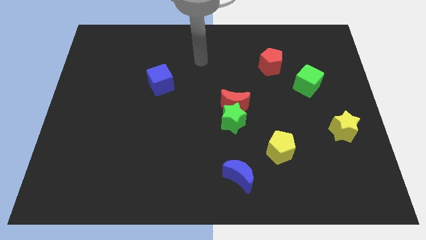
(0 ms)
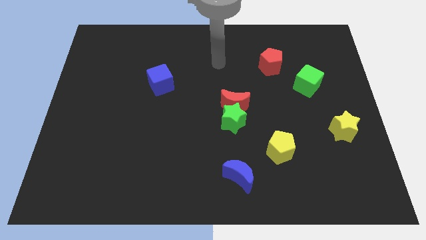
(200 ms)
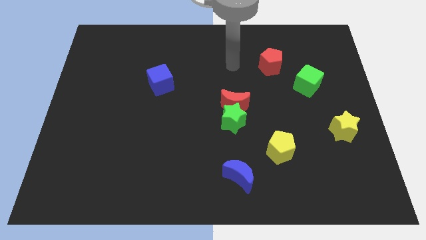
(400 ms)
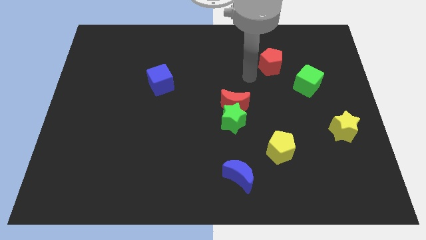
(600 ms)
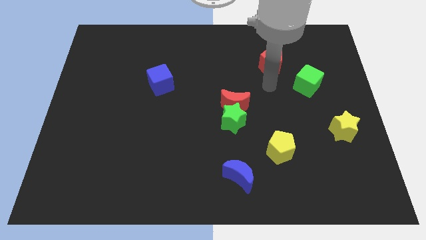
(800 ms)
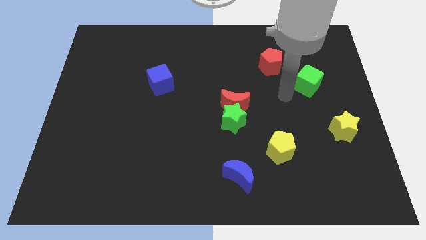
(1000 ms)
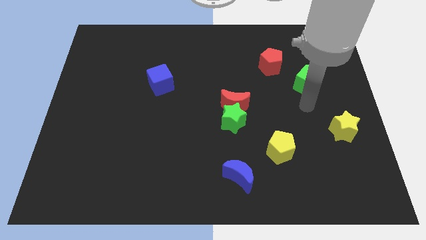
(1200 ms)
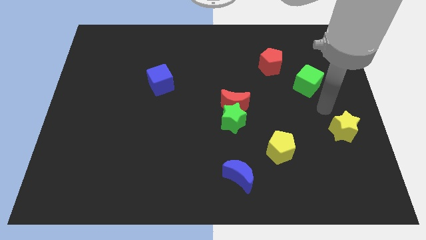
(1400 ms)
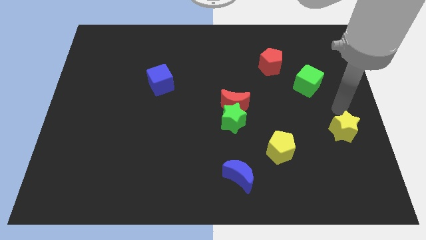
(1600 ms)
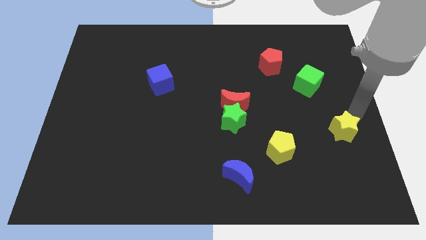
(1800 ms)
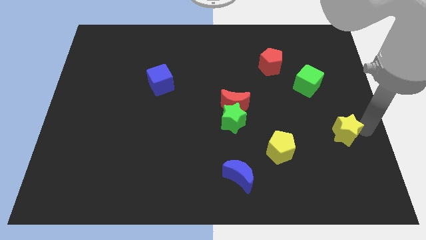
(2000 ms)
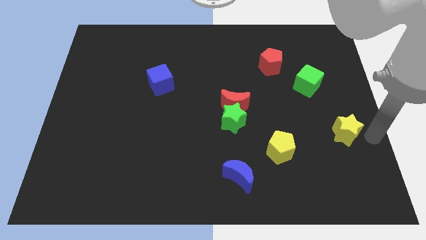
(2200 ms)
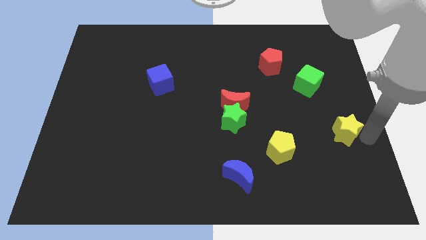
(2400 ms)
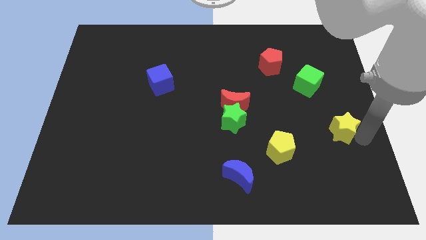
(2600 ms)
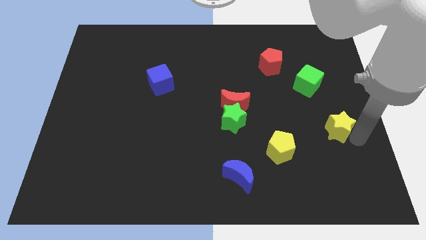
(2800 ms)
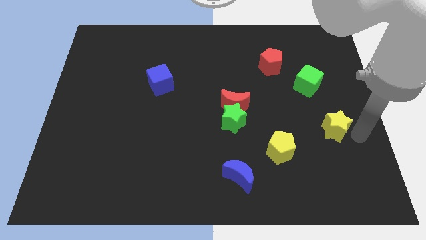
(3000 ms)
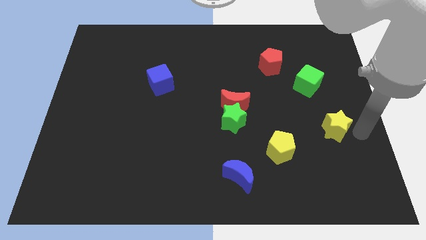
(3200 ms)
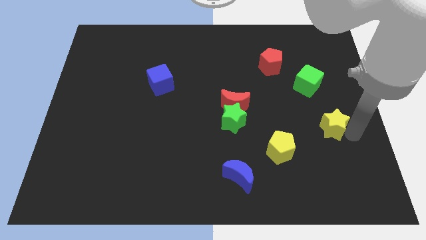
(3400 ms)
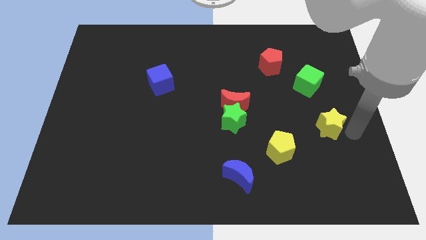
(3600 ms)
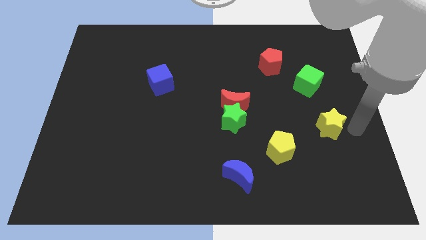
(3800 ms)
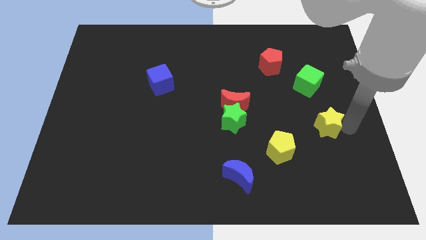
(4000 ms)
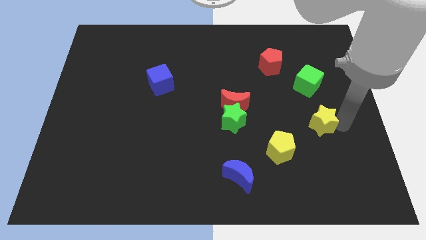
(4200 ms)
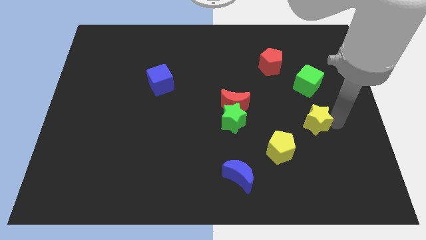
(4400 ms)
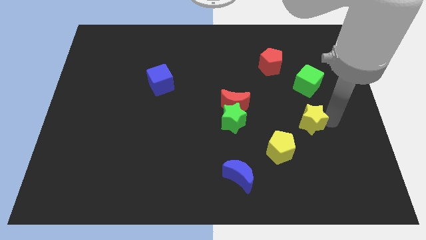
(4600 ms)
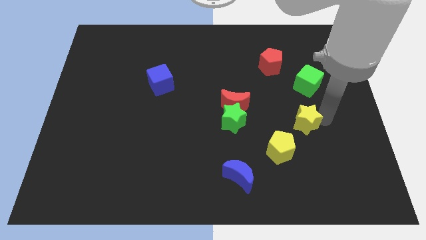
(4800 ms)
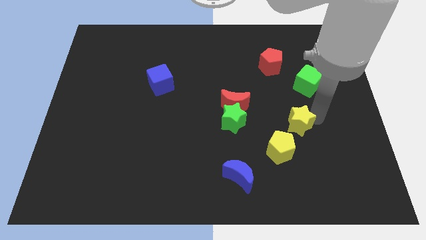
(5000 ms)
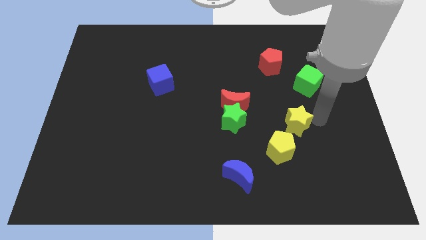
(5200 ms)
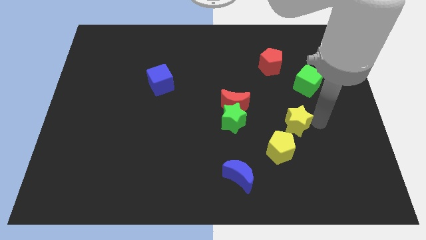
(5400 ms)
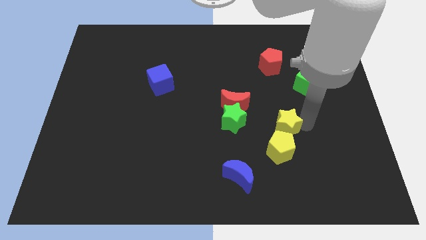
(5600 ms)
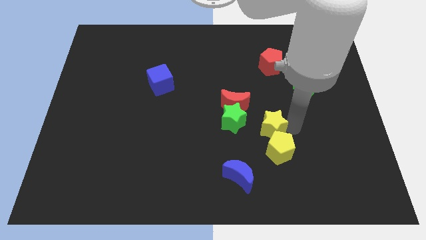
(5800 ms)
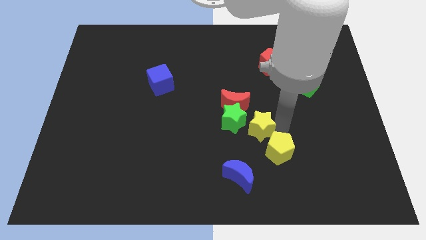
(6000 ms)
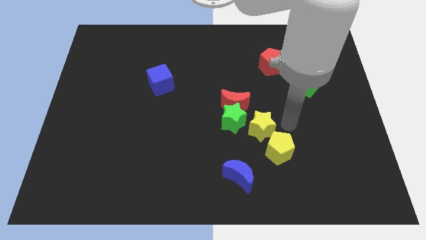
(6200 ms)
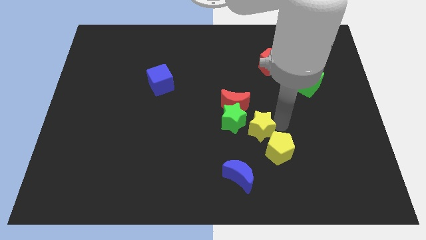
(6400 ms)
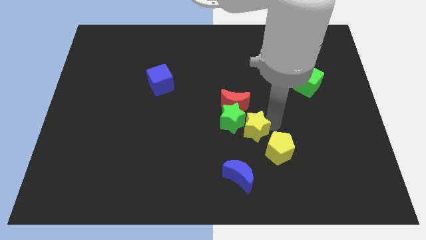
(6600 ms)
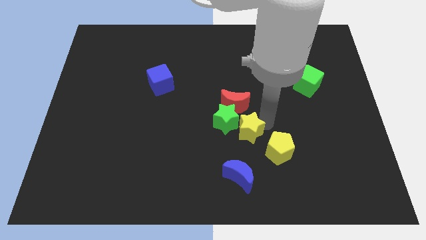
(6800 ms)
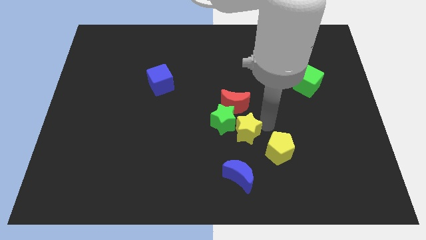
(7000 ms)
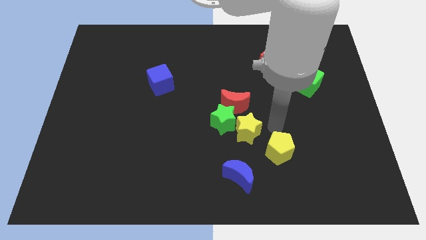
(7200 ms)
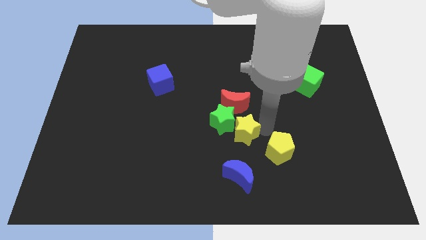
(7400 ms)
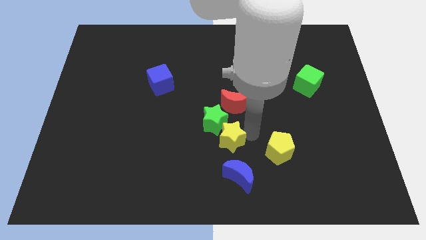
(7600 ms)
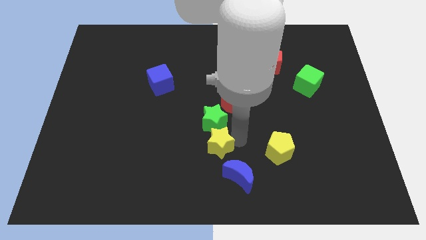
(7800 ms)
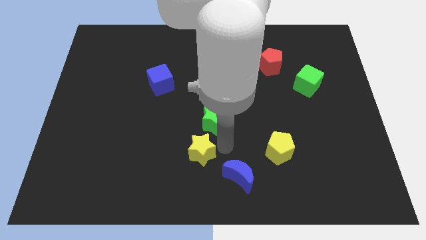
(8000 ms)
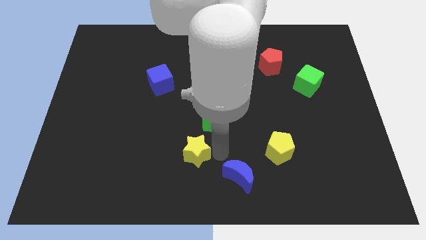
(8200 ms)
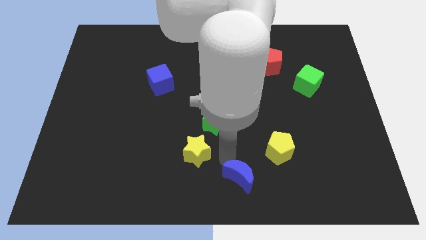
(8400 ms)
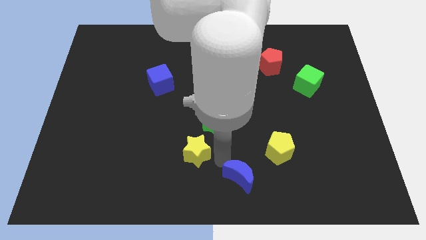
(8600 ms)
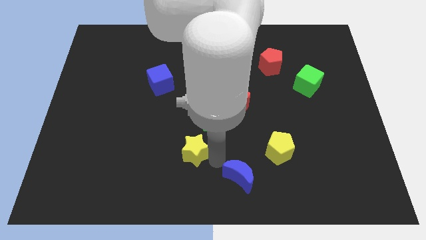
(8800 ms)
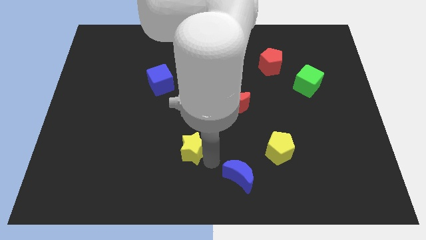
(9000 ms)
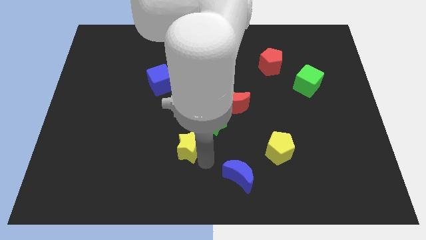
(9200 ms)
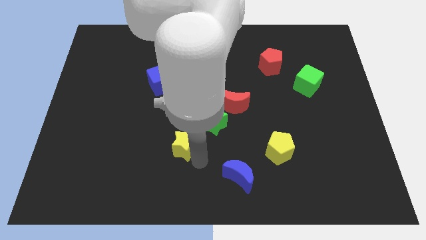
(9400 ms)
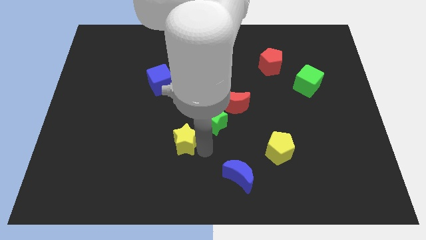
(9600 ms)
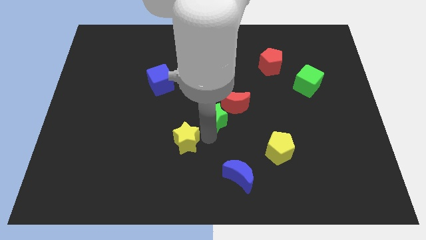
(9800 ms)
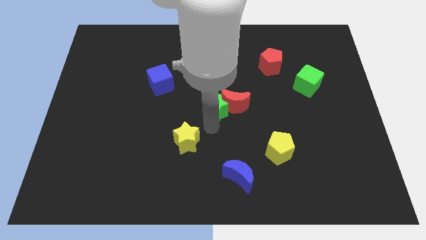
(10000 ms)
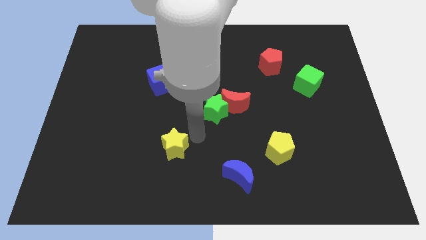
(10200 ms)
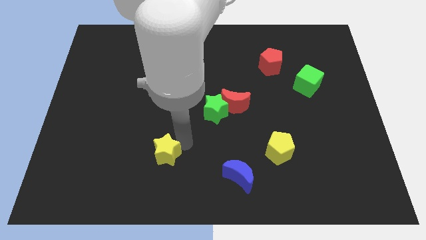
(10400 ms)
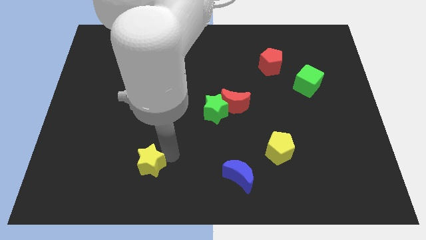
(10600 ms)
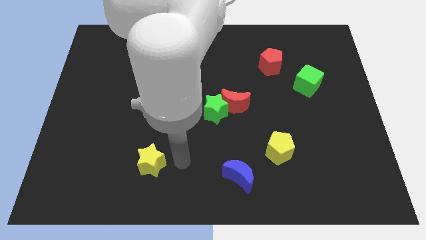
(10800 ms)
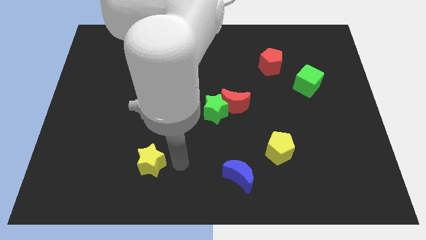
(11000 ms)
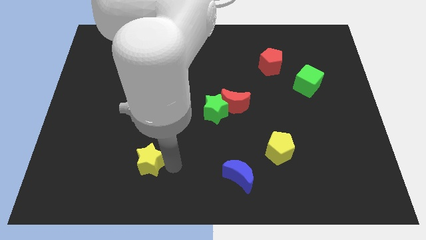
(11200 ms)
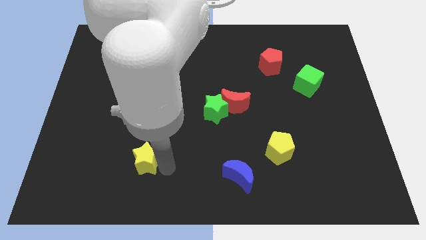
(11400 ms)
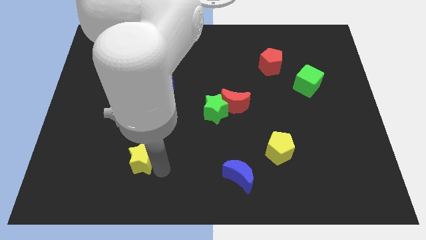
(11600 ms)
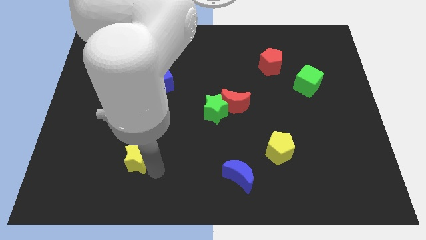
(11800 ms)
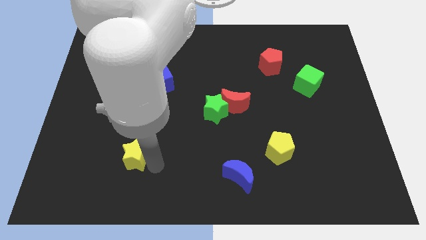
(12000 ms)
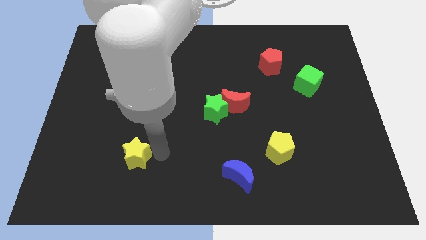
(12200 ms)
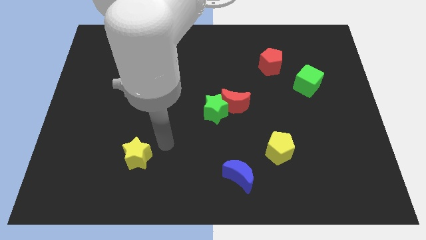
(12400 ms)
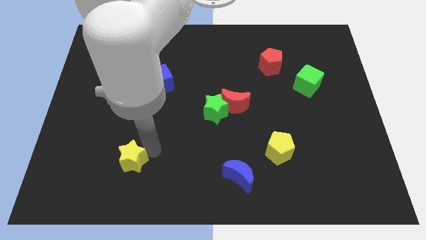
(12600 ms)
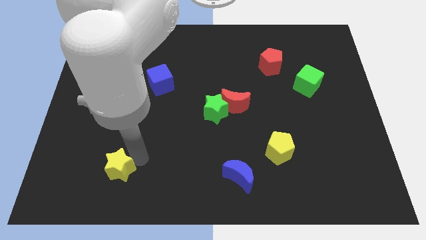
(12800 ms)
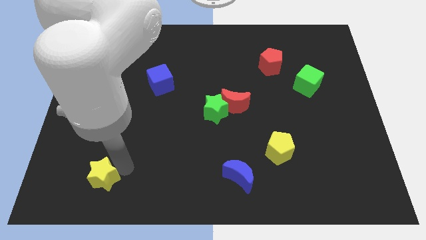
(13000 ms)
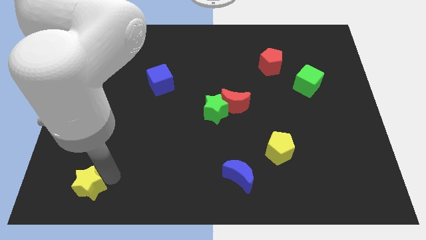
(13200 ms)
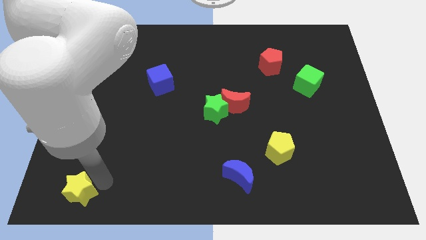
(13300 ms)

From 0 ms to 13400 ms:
move the yellow star to the bottom left of the board
